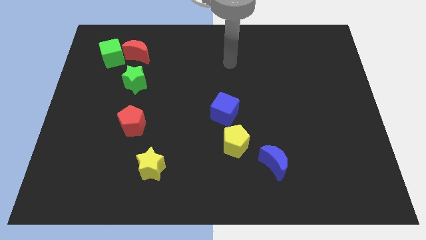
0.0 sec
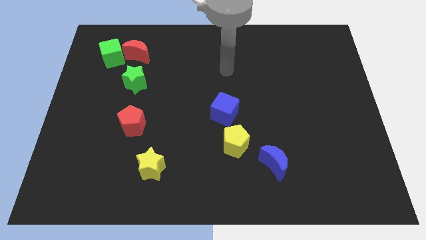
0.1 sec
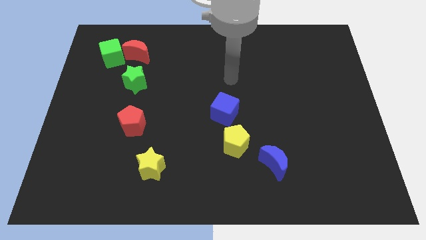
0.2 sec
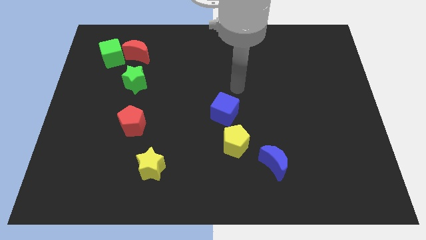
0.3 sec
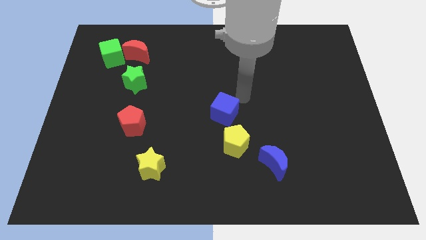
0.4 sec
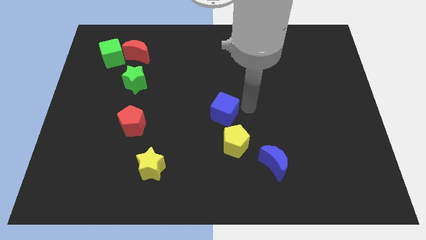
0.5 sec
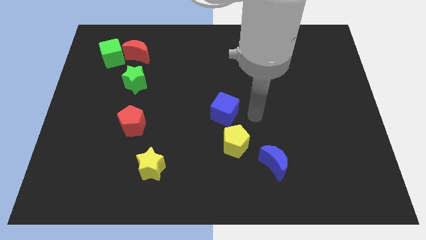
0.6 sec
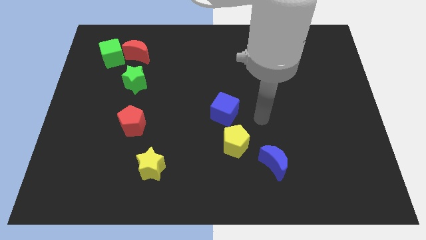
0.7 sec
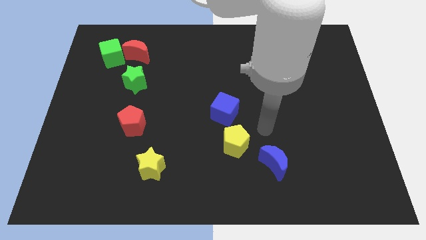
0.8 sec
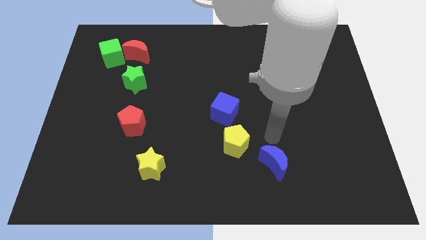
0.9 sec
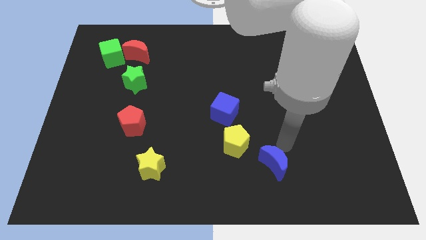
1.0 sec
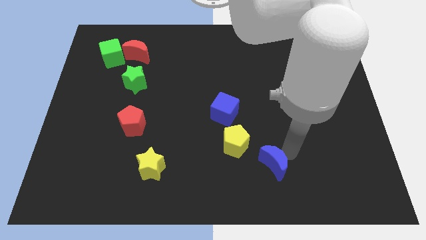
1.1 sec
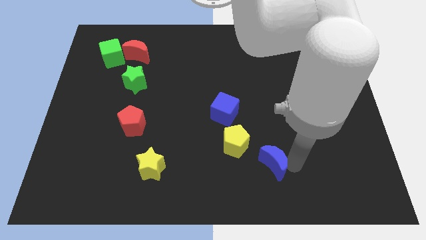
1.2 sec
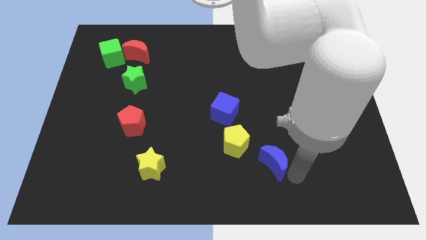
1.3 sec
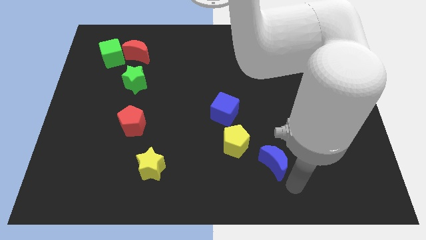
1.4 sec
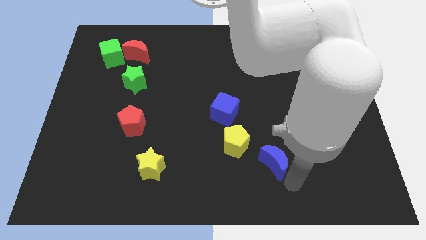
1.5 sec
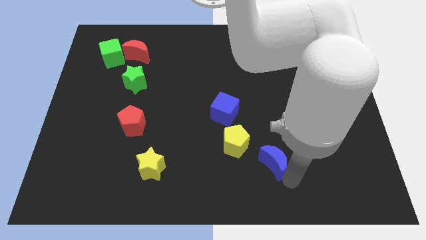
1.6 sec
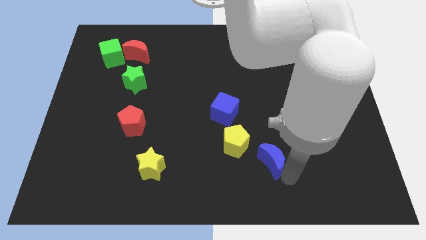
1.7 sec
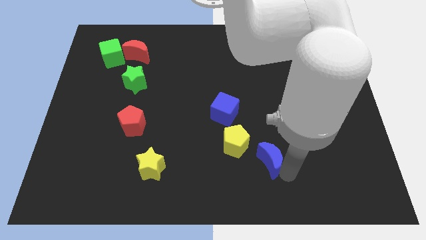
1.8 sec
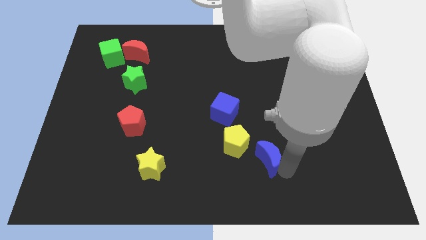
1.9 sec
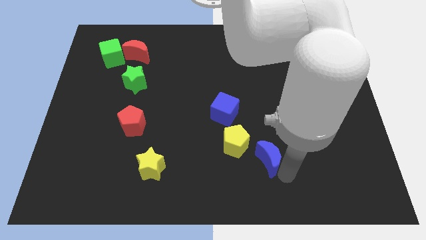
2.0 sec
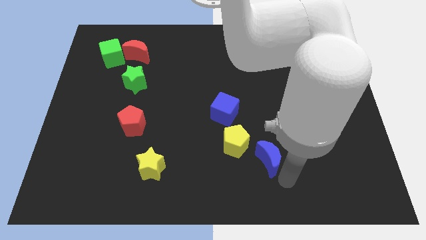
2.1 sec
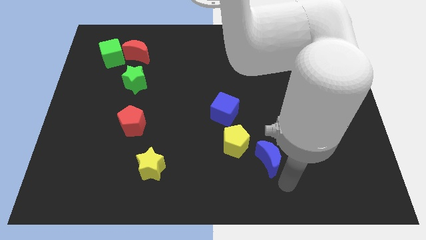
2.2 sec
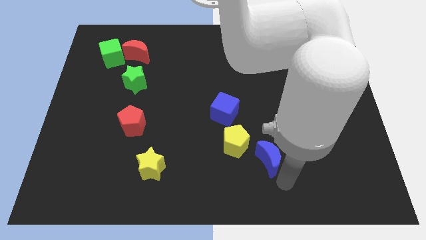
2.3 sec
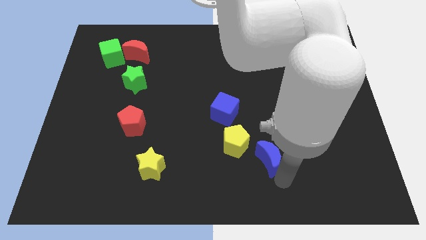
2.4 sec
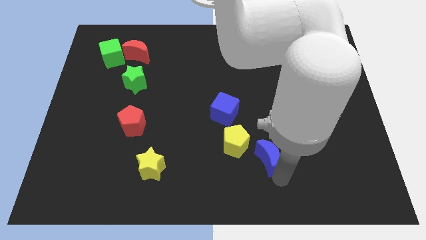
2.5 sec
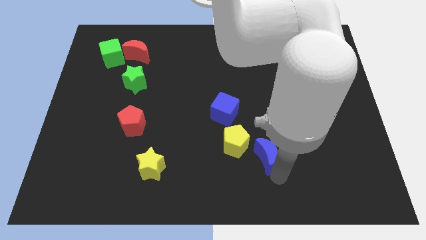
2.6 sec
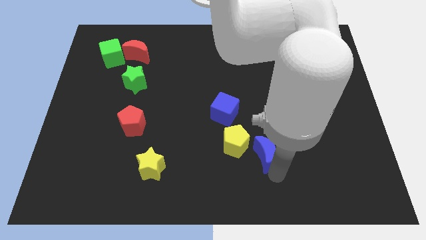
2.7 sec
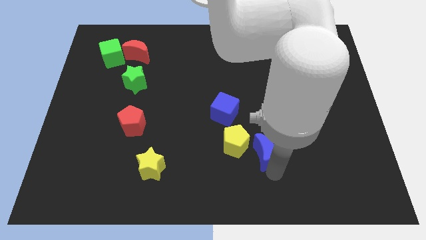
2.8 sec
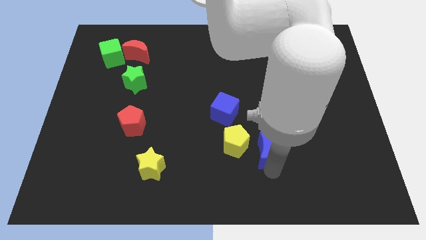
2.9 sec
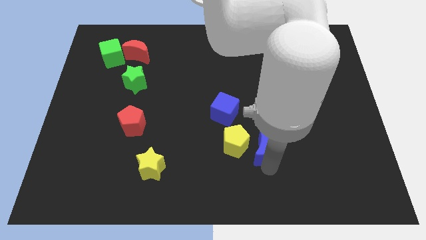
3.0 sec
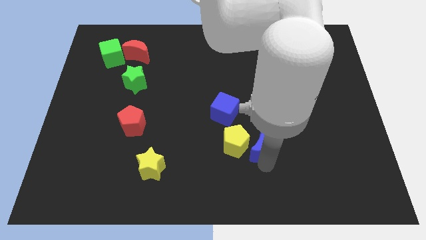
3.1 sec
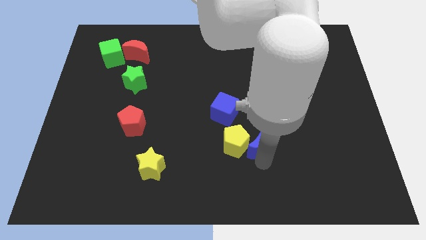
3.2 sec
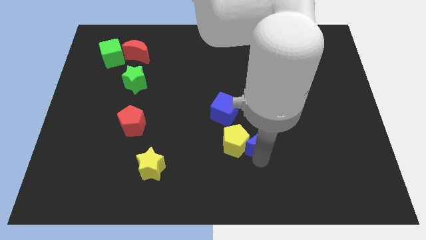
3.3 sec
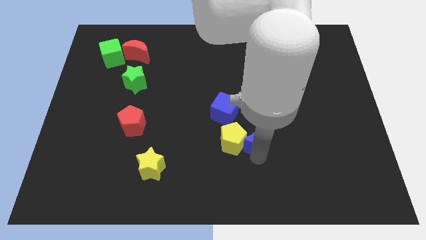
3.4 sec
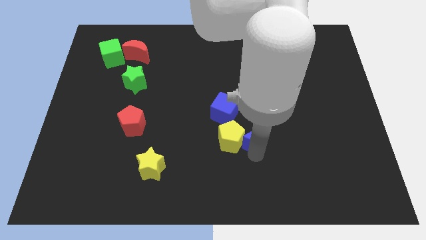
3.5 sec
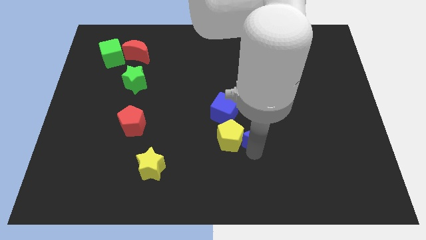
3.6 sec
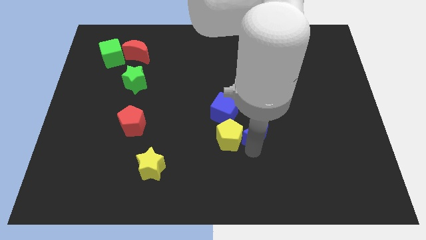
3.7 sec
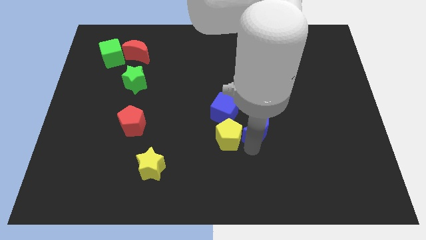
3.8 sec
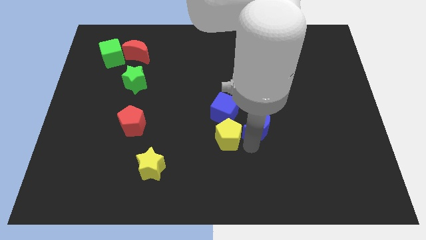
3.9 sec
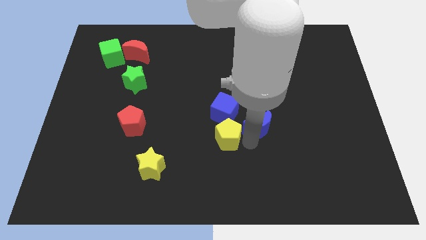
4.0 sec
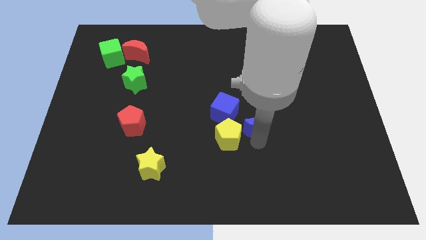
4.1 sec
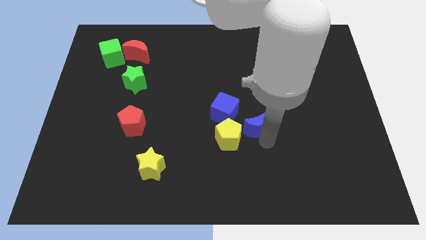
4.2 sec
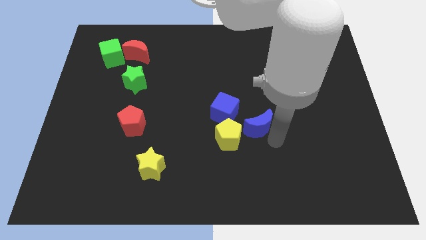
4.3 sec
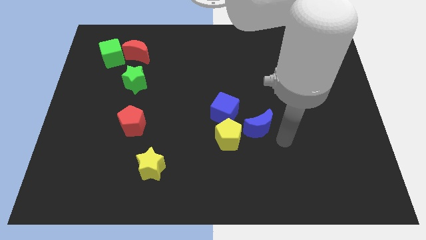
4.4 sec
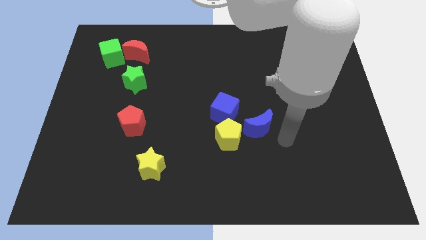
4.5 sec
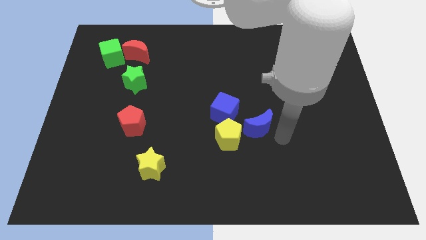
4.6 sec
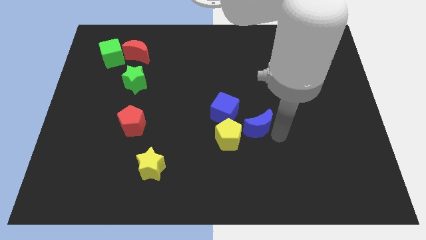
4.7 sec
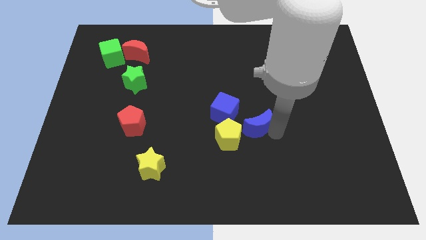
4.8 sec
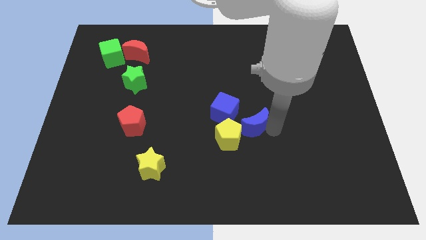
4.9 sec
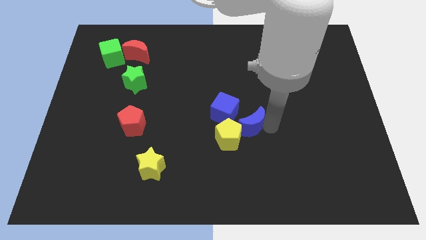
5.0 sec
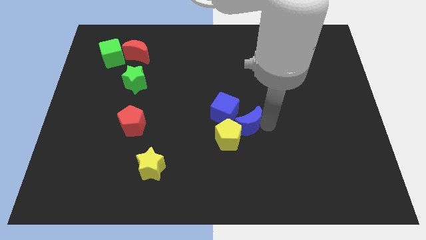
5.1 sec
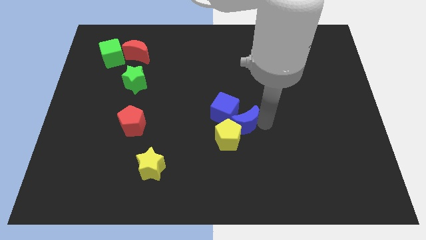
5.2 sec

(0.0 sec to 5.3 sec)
put the blue moon next to the blue cube

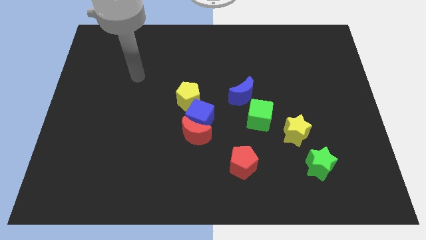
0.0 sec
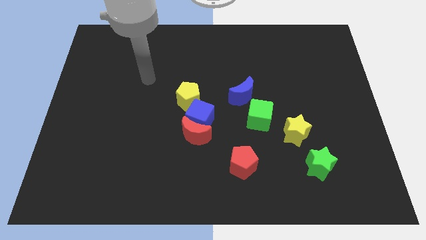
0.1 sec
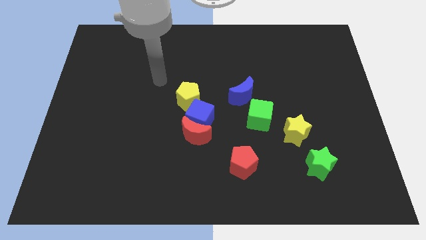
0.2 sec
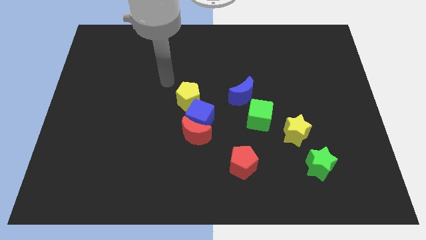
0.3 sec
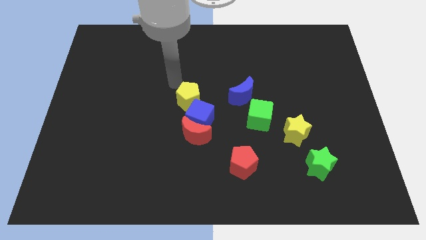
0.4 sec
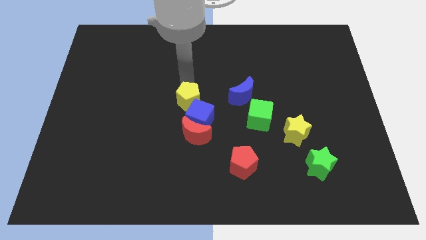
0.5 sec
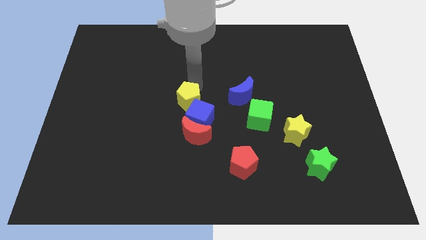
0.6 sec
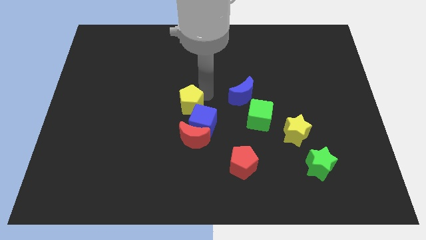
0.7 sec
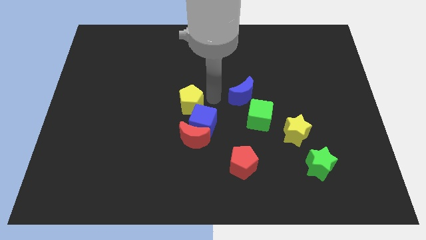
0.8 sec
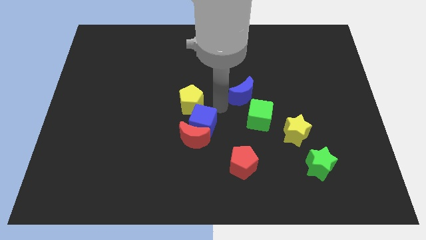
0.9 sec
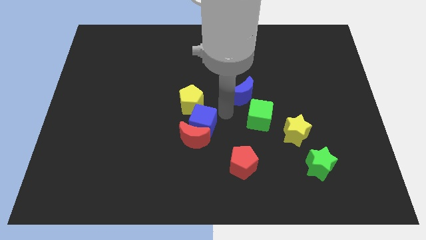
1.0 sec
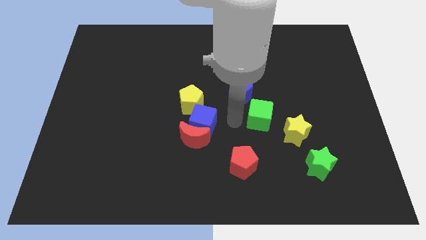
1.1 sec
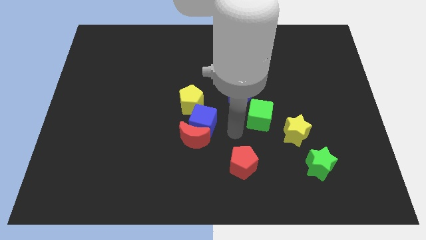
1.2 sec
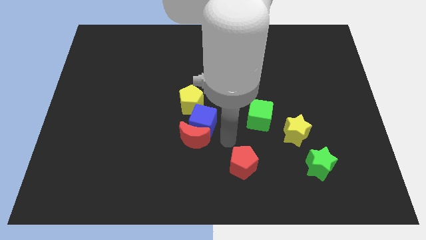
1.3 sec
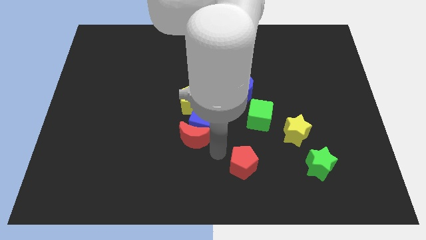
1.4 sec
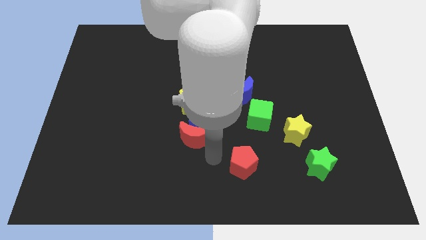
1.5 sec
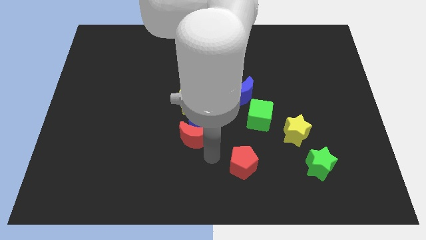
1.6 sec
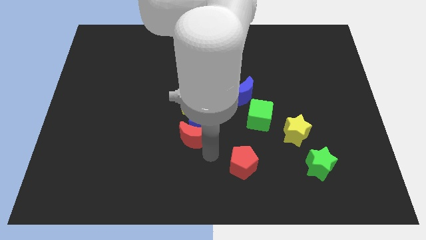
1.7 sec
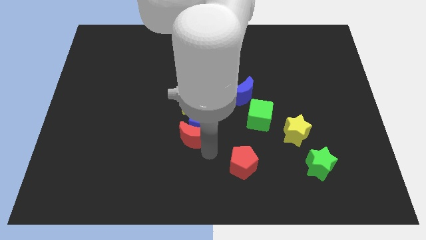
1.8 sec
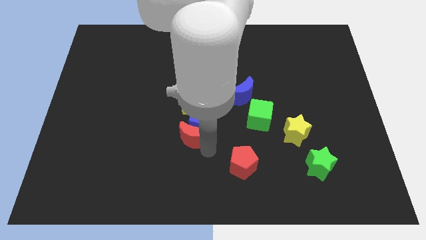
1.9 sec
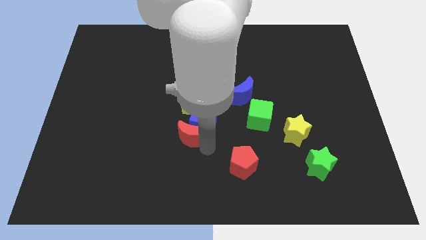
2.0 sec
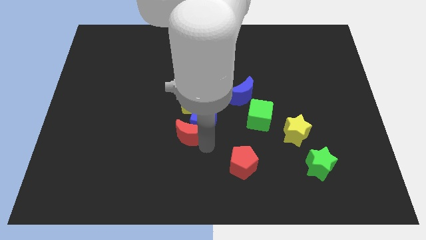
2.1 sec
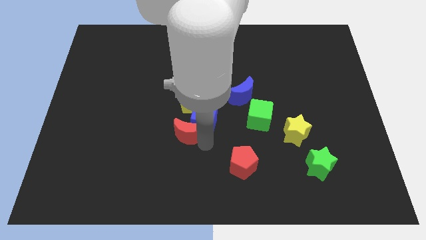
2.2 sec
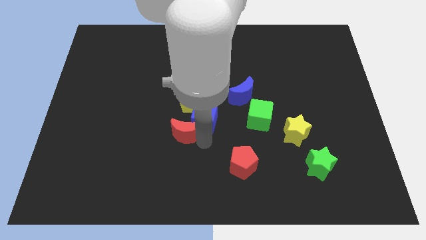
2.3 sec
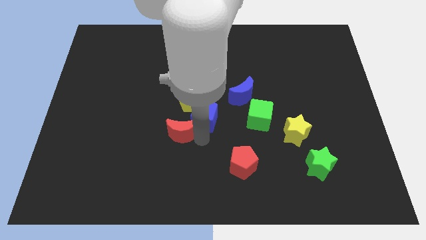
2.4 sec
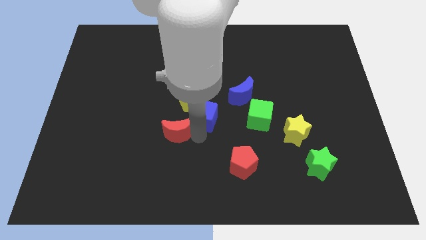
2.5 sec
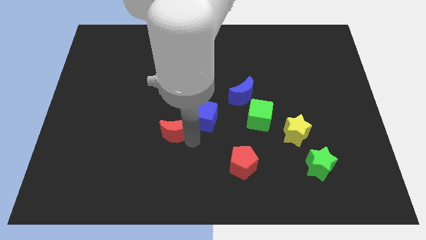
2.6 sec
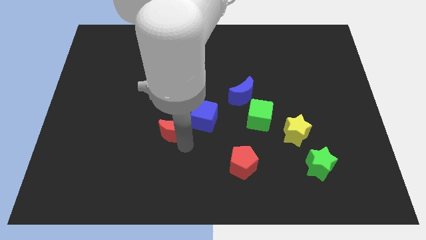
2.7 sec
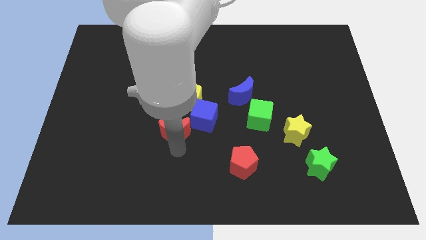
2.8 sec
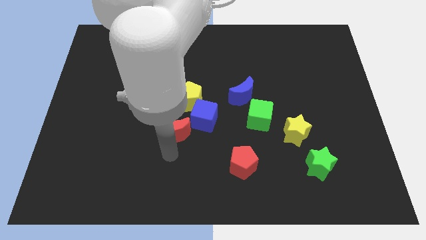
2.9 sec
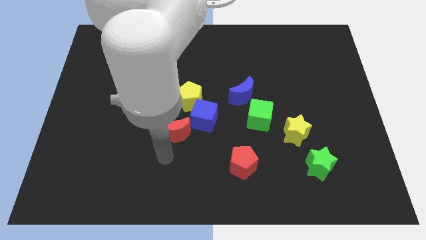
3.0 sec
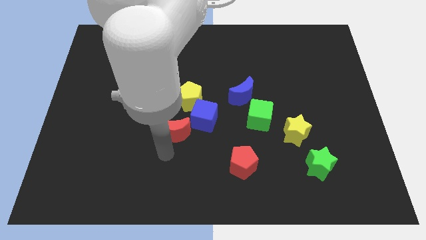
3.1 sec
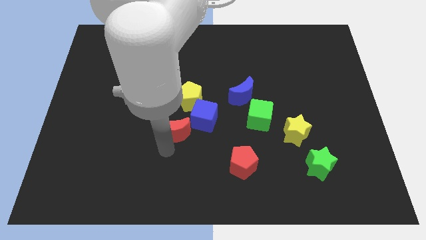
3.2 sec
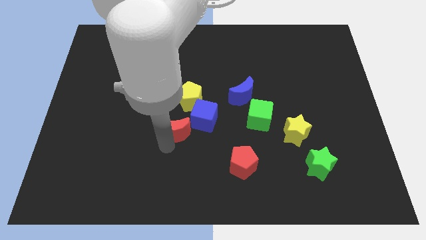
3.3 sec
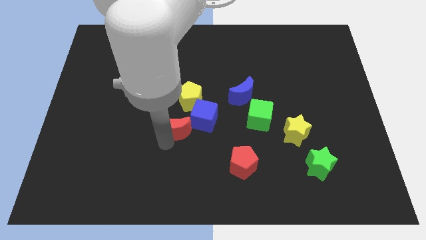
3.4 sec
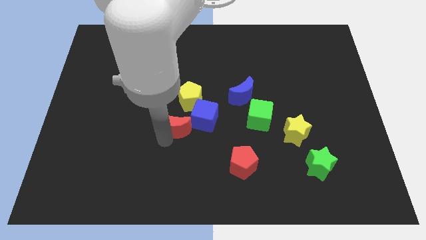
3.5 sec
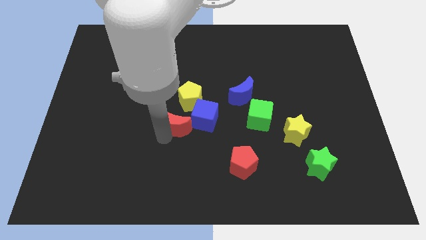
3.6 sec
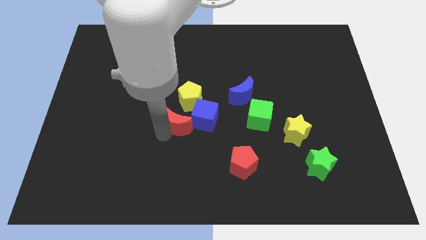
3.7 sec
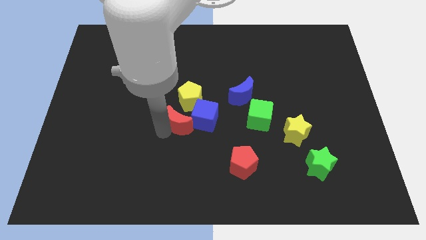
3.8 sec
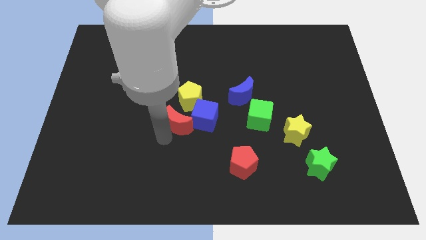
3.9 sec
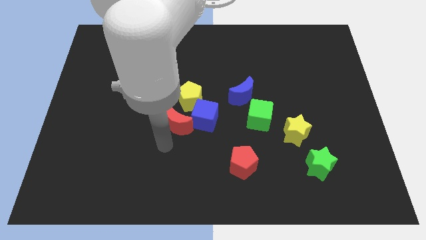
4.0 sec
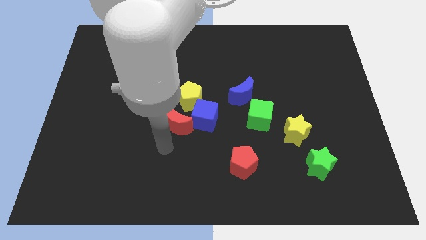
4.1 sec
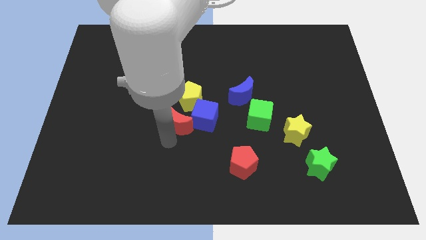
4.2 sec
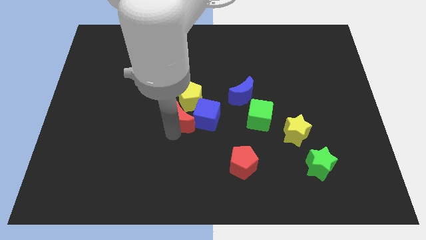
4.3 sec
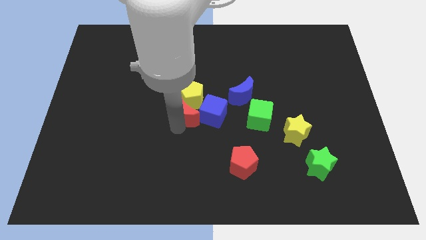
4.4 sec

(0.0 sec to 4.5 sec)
push the red moon next to the yellow pentagon
